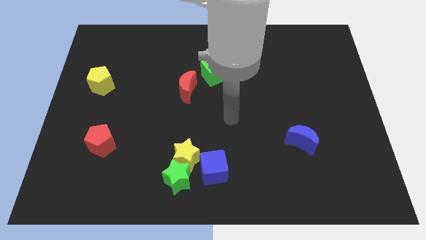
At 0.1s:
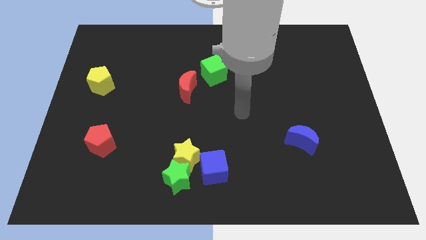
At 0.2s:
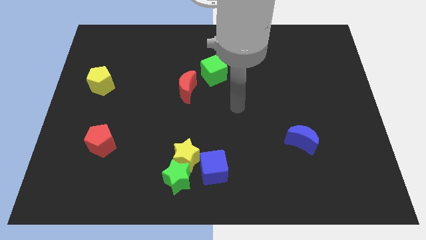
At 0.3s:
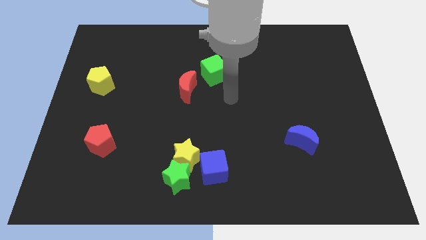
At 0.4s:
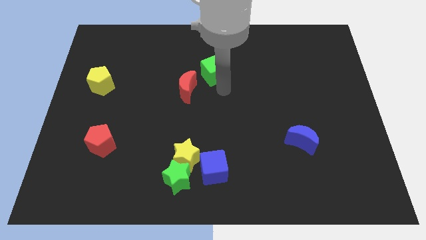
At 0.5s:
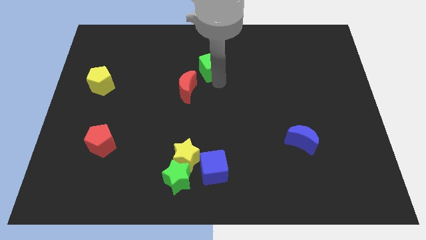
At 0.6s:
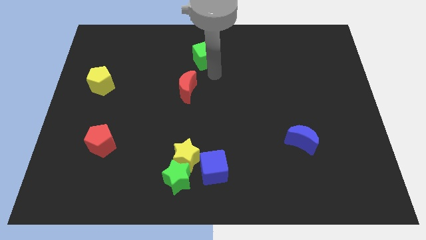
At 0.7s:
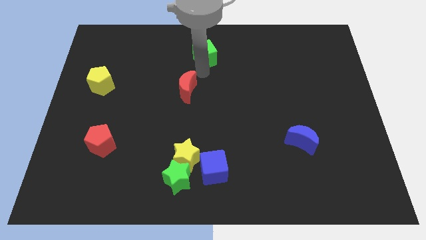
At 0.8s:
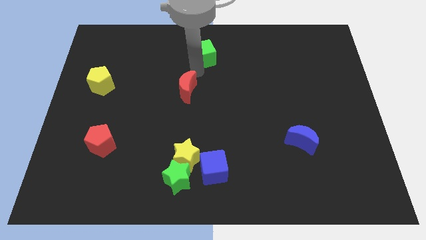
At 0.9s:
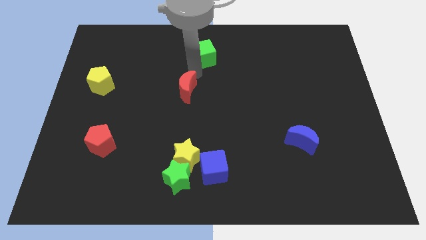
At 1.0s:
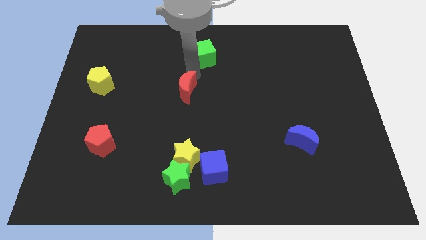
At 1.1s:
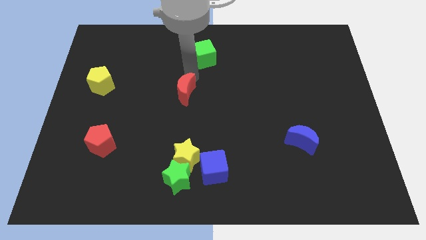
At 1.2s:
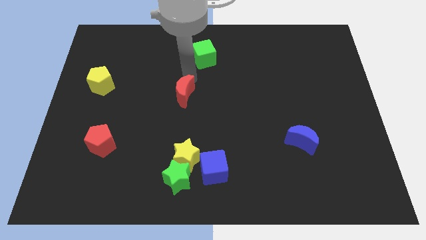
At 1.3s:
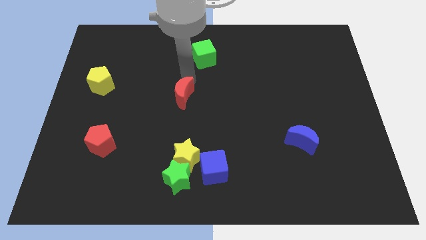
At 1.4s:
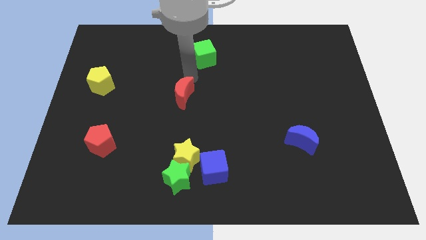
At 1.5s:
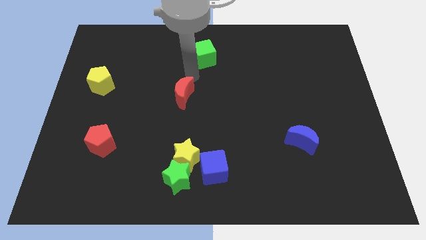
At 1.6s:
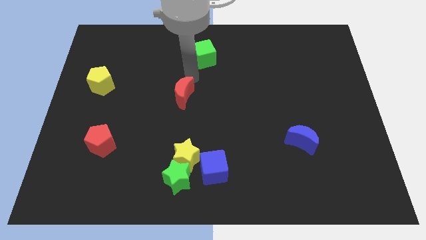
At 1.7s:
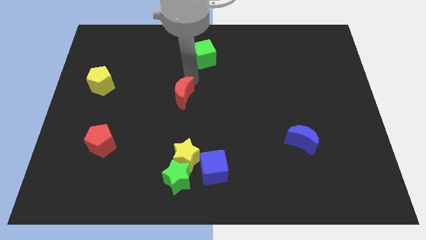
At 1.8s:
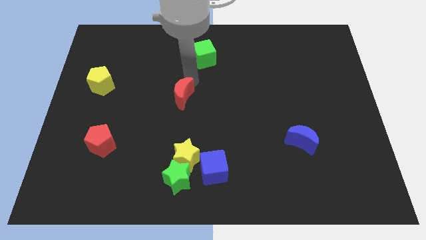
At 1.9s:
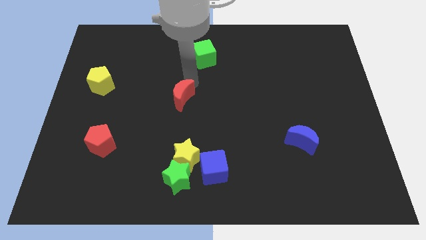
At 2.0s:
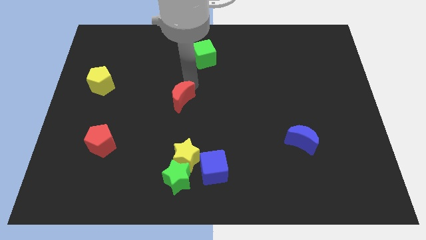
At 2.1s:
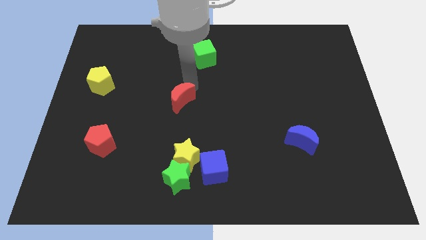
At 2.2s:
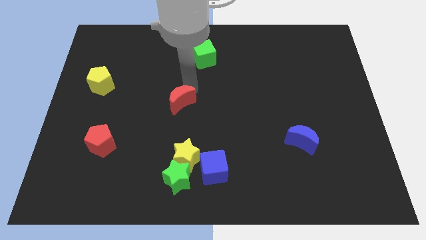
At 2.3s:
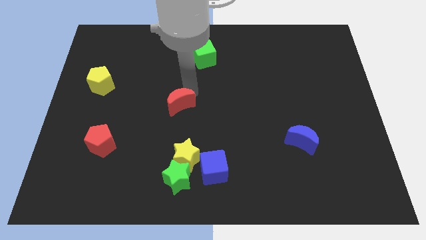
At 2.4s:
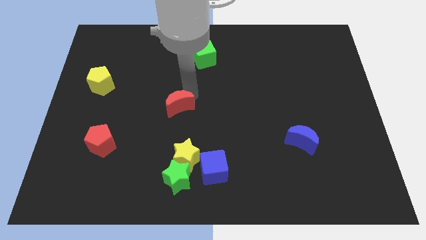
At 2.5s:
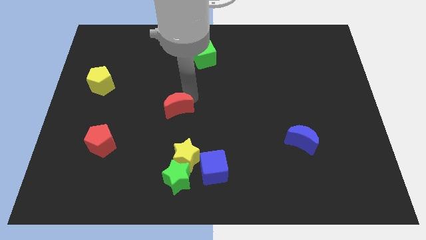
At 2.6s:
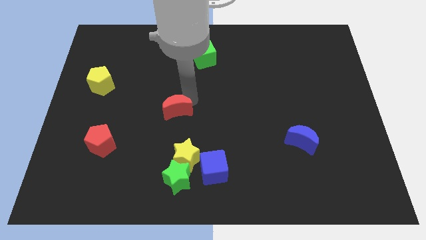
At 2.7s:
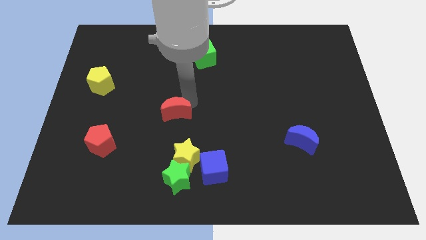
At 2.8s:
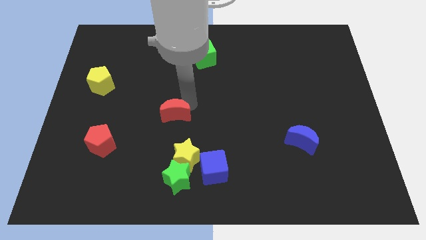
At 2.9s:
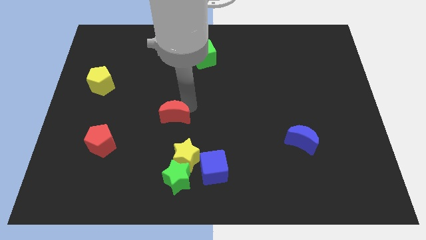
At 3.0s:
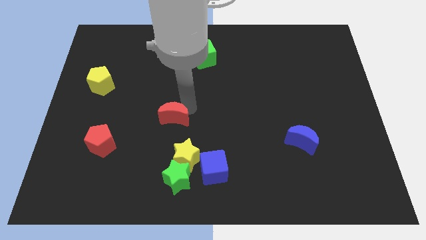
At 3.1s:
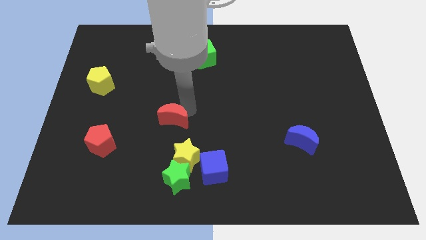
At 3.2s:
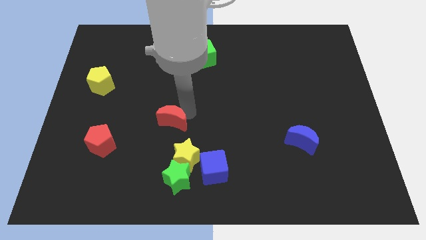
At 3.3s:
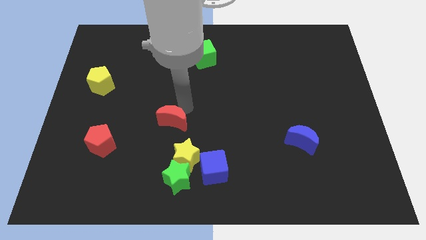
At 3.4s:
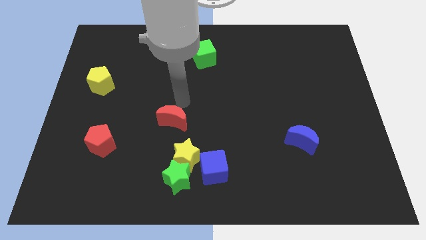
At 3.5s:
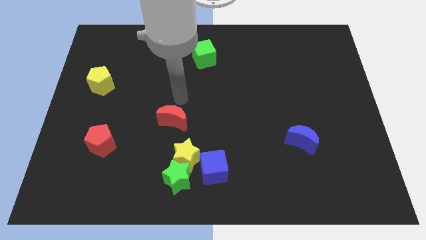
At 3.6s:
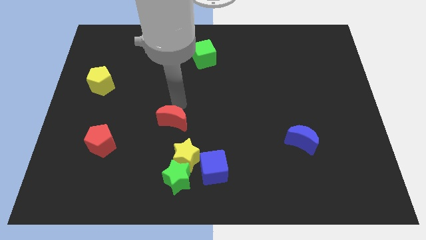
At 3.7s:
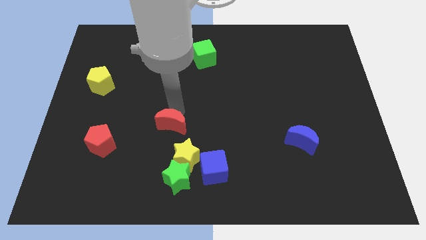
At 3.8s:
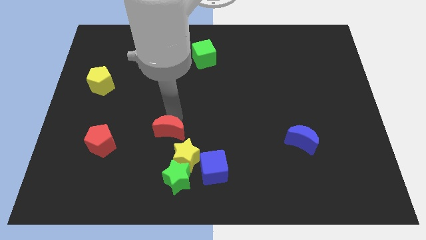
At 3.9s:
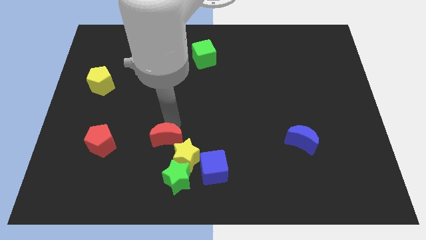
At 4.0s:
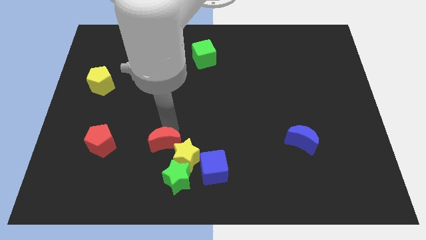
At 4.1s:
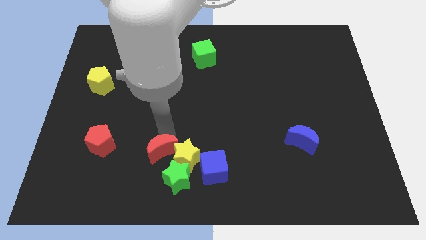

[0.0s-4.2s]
put the red moon left of the blue cube

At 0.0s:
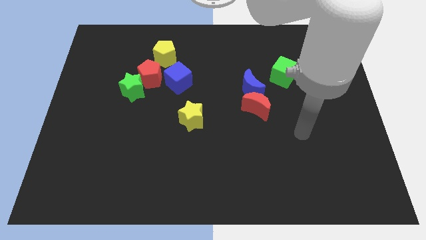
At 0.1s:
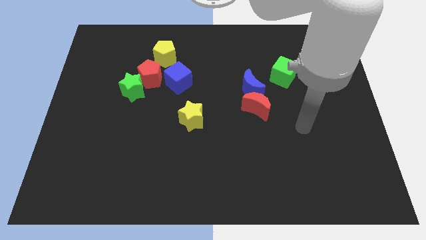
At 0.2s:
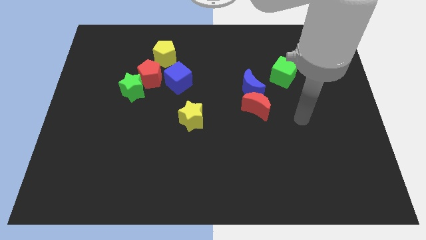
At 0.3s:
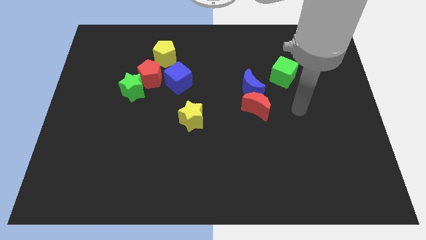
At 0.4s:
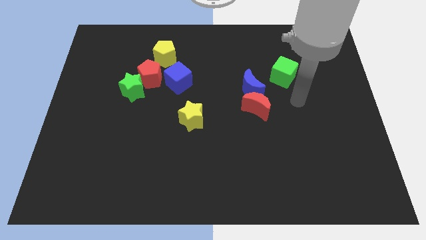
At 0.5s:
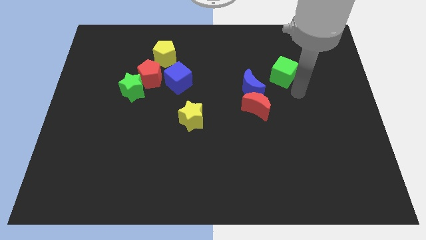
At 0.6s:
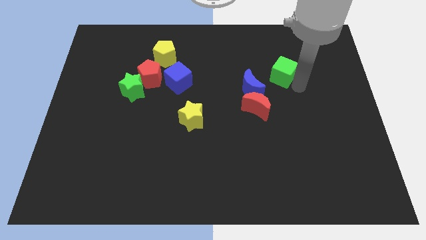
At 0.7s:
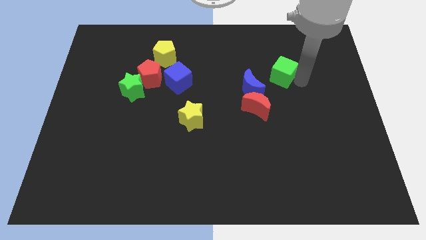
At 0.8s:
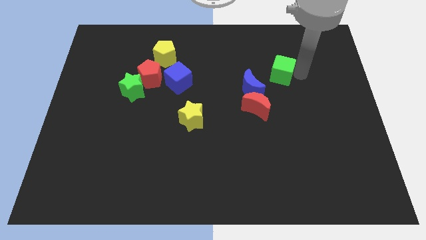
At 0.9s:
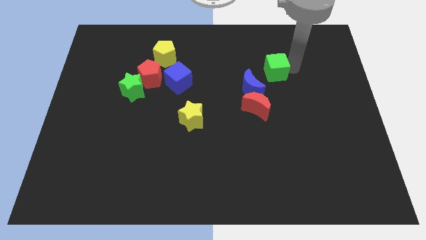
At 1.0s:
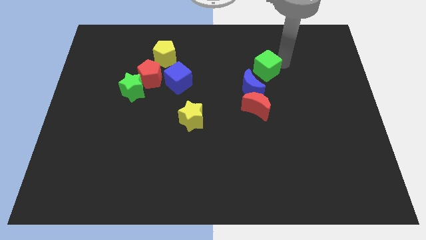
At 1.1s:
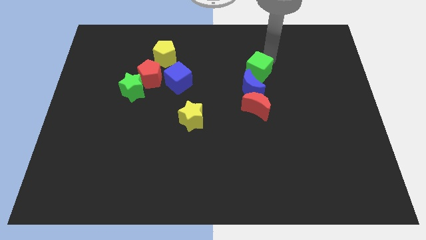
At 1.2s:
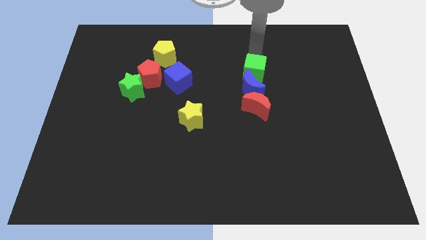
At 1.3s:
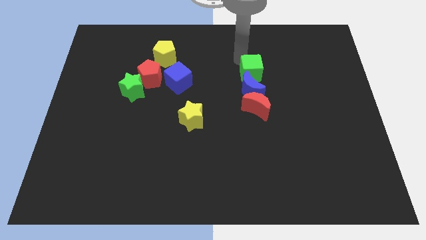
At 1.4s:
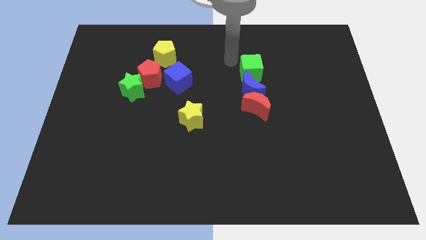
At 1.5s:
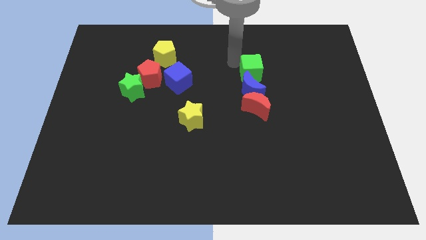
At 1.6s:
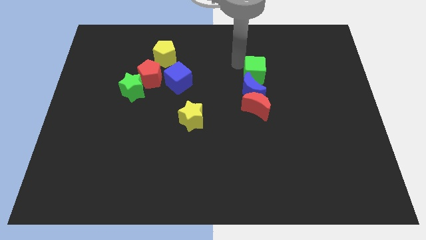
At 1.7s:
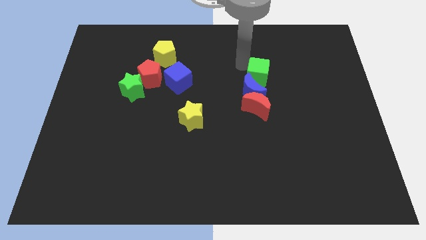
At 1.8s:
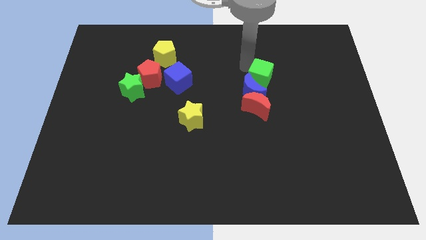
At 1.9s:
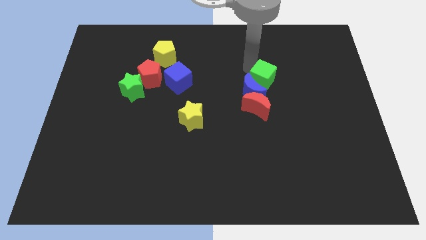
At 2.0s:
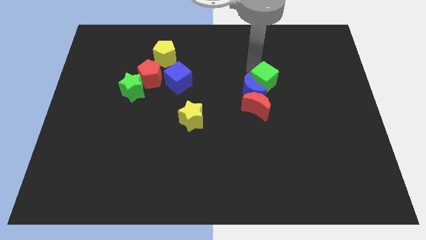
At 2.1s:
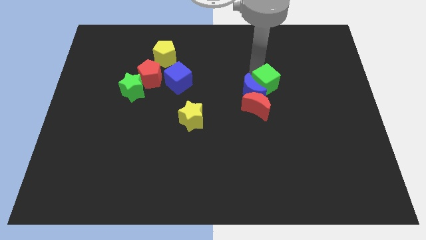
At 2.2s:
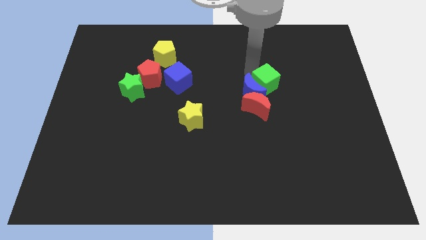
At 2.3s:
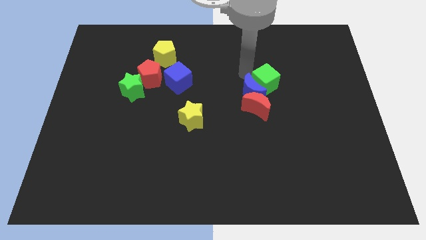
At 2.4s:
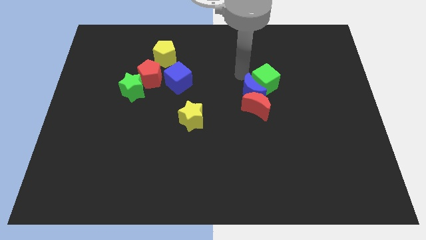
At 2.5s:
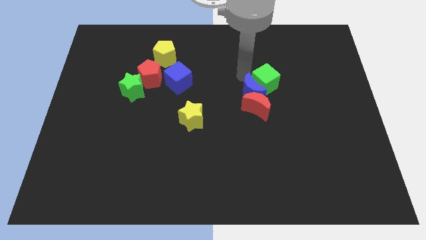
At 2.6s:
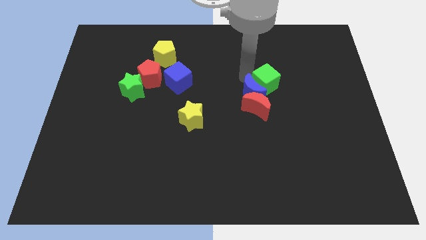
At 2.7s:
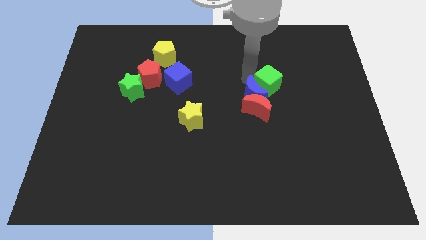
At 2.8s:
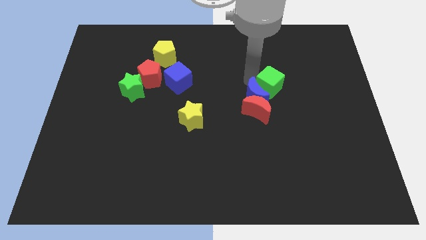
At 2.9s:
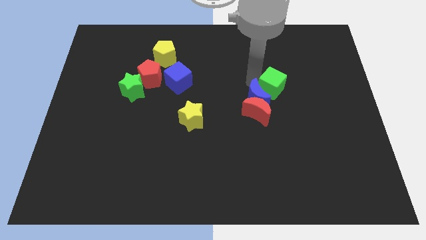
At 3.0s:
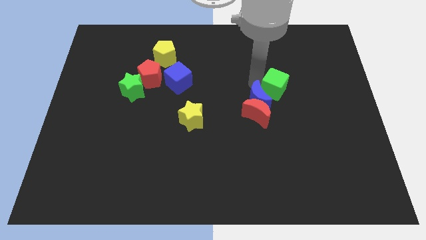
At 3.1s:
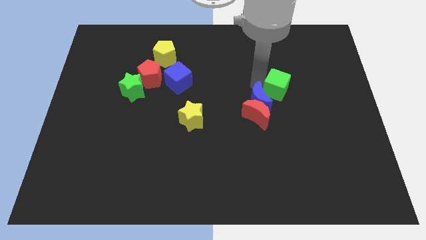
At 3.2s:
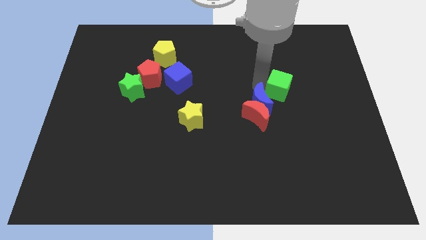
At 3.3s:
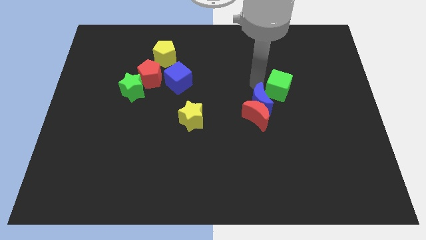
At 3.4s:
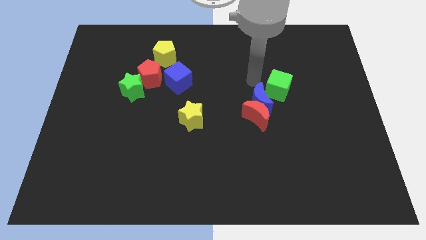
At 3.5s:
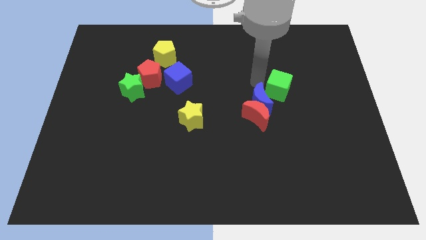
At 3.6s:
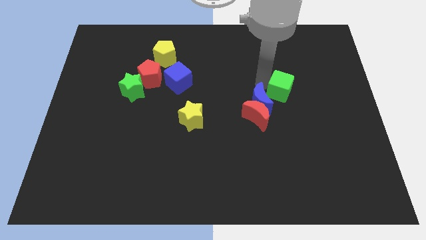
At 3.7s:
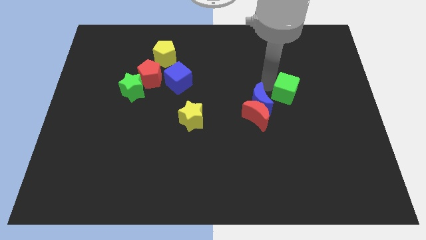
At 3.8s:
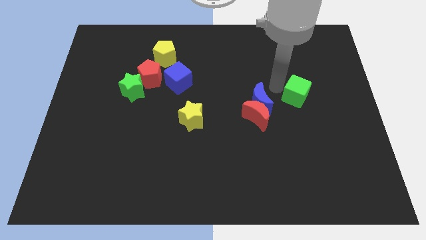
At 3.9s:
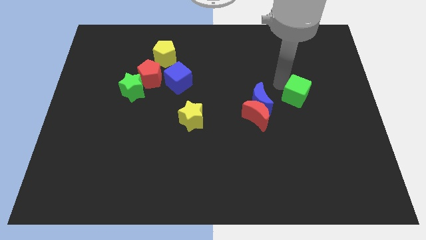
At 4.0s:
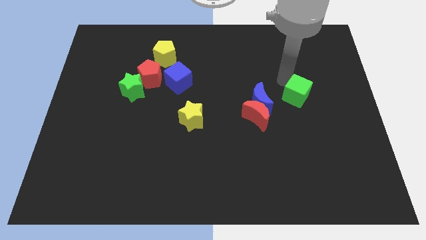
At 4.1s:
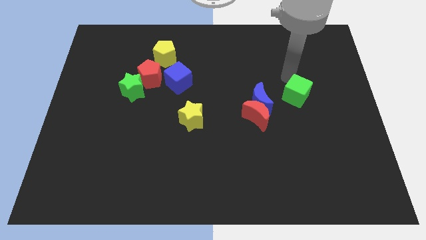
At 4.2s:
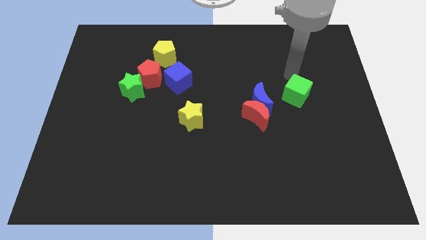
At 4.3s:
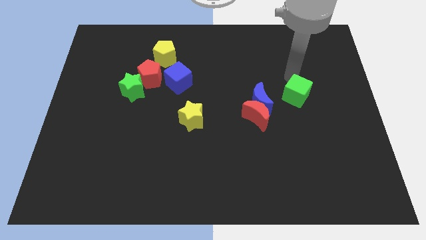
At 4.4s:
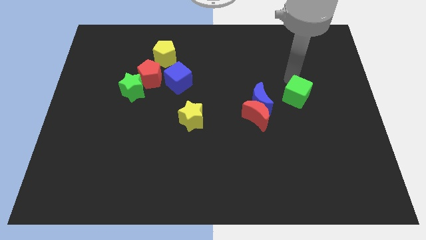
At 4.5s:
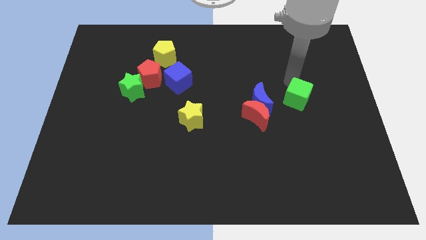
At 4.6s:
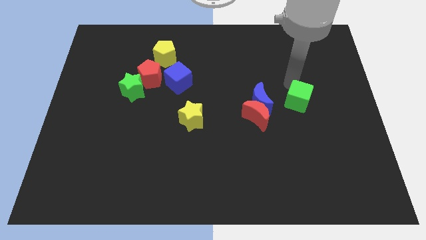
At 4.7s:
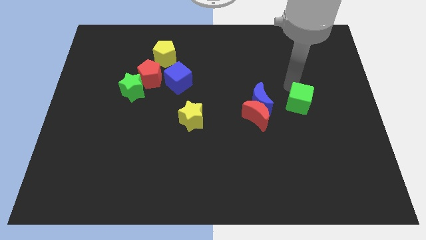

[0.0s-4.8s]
put the green cube to the right side of the red moon
